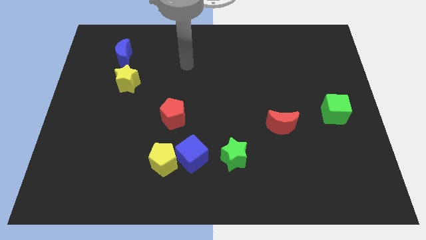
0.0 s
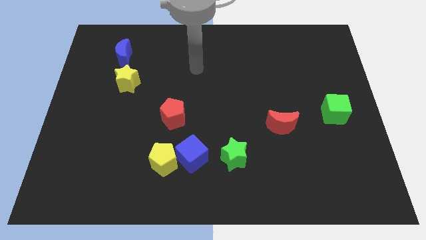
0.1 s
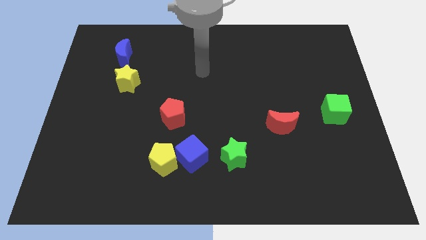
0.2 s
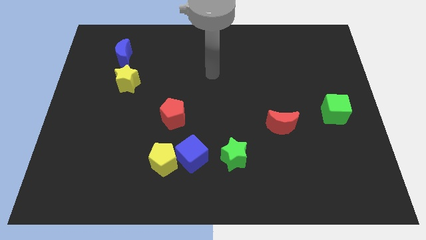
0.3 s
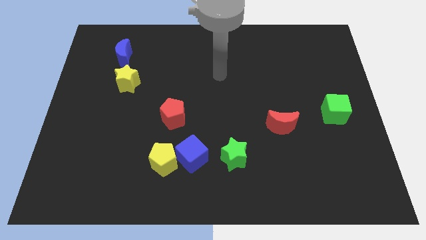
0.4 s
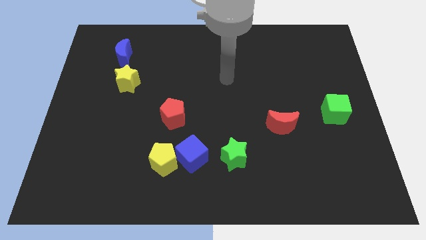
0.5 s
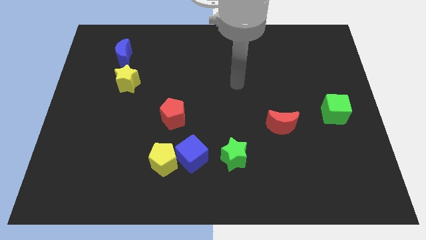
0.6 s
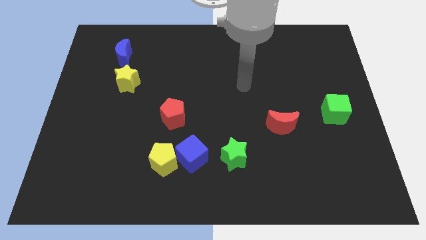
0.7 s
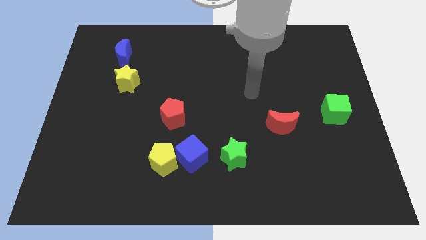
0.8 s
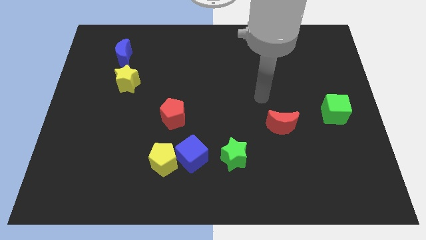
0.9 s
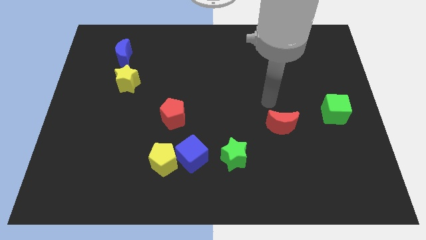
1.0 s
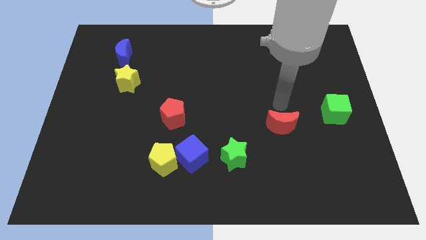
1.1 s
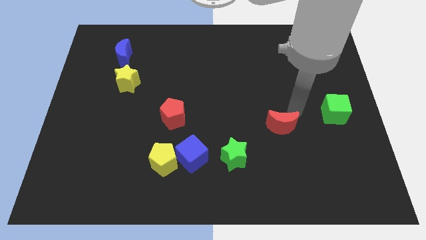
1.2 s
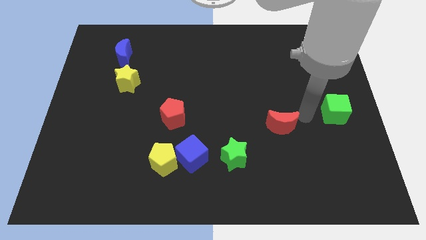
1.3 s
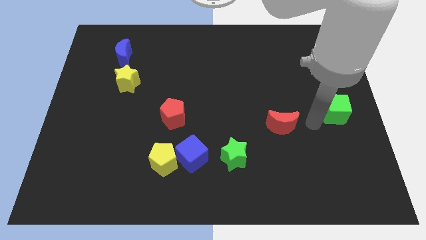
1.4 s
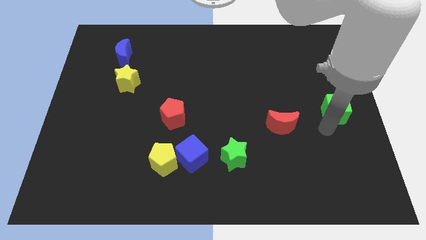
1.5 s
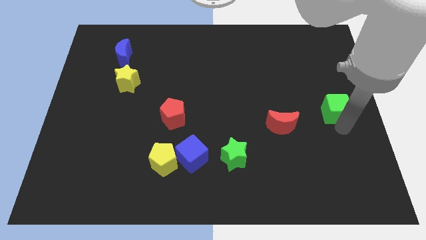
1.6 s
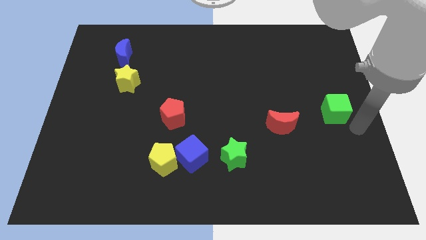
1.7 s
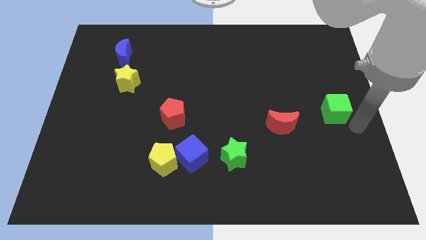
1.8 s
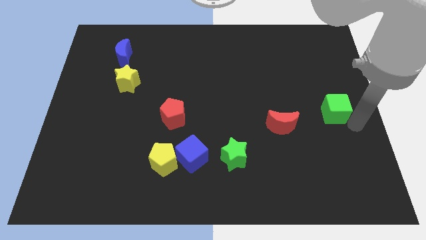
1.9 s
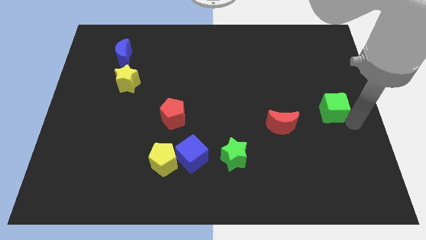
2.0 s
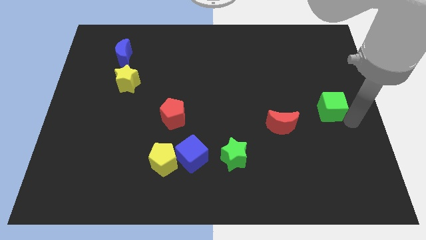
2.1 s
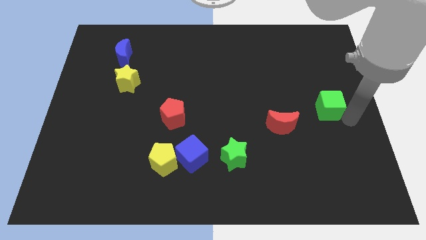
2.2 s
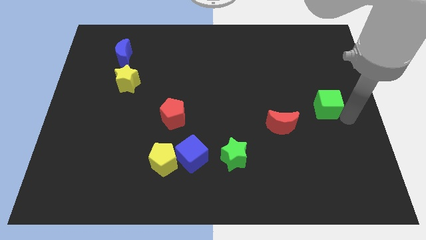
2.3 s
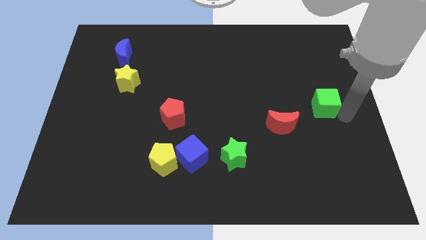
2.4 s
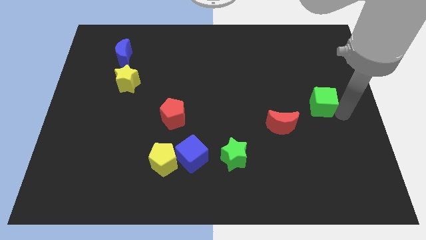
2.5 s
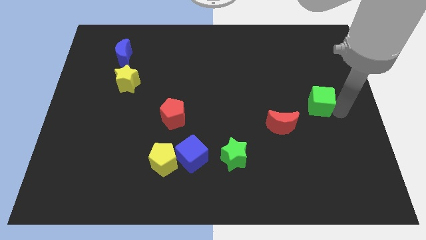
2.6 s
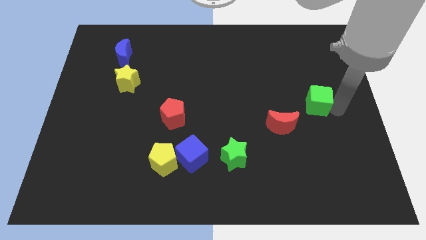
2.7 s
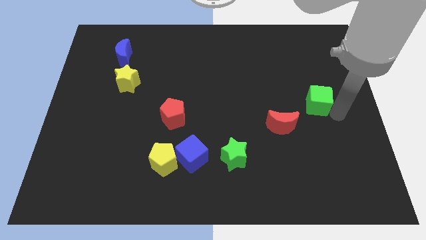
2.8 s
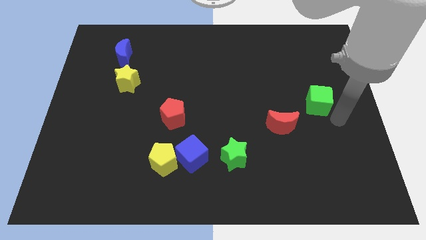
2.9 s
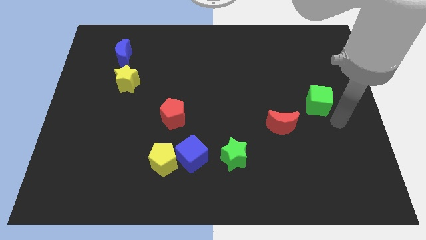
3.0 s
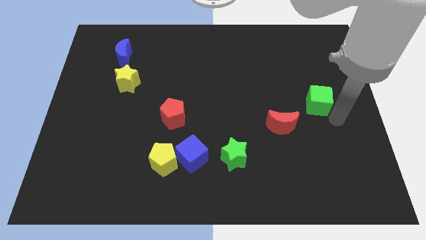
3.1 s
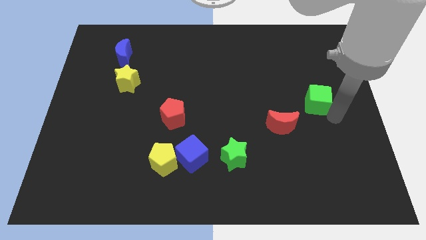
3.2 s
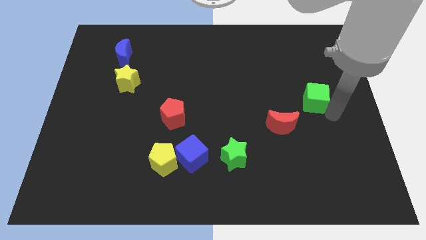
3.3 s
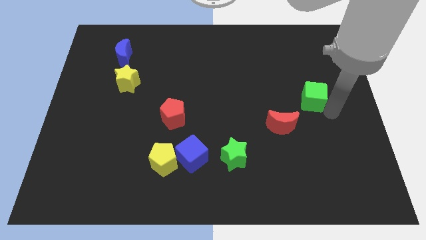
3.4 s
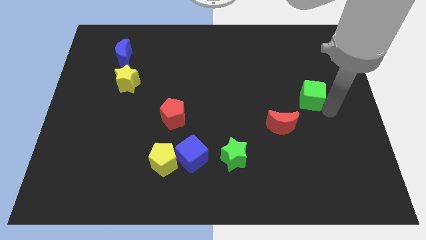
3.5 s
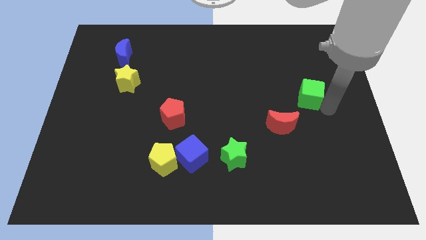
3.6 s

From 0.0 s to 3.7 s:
slide the green cube a little bit upwards and left diagonally

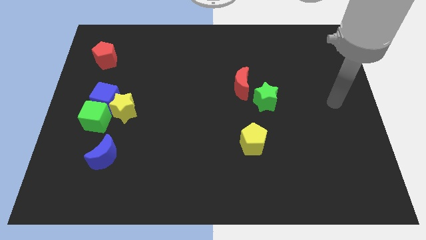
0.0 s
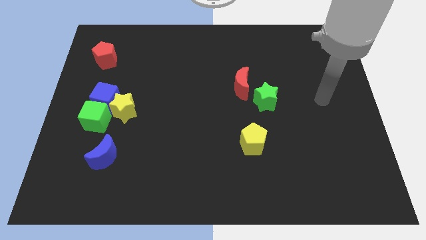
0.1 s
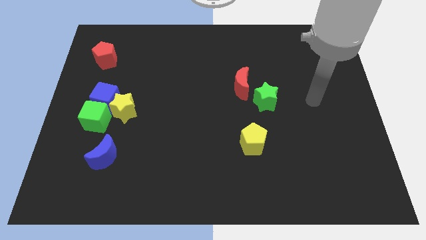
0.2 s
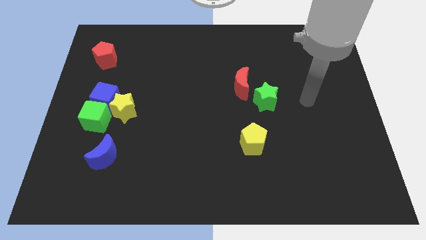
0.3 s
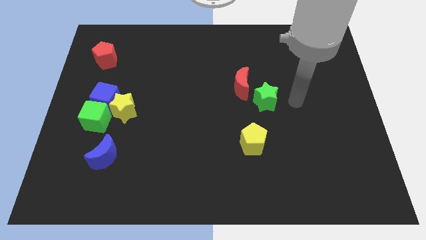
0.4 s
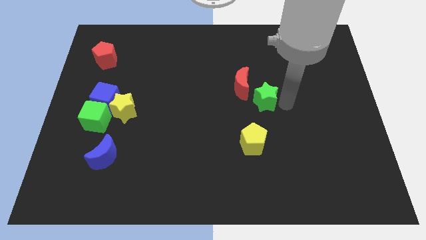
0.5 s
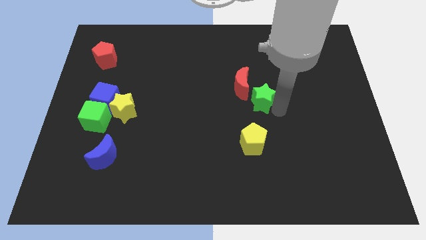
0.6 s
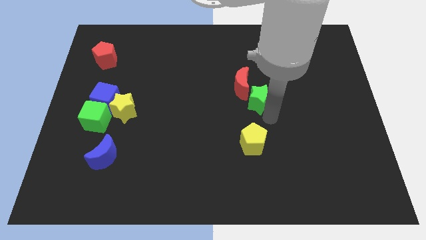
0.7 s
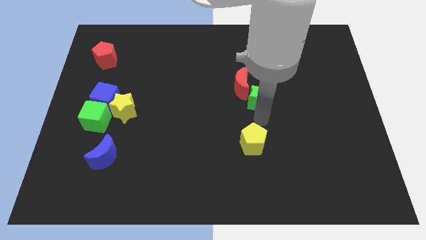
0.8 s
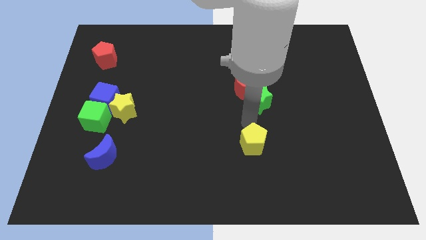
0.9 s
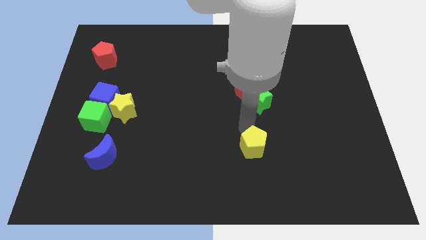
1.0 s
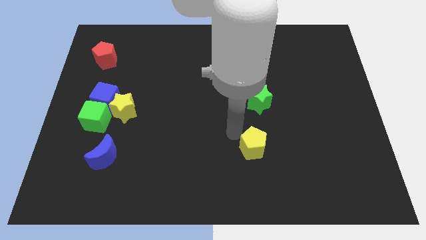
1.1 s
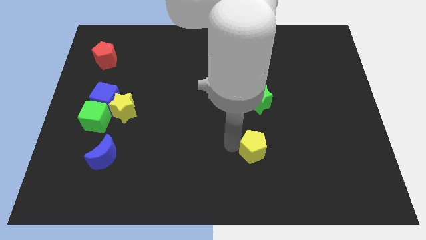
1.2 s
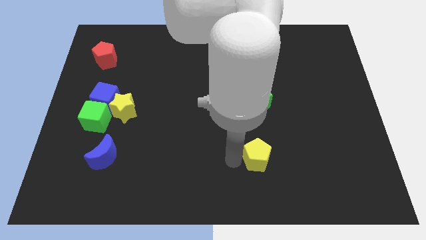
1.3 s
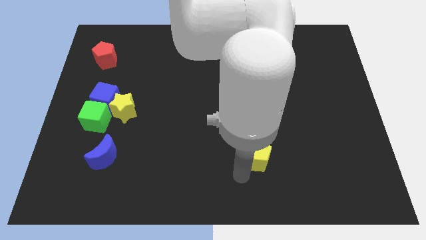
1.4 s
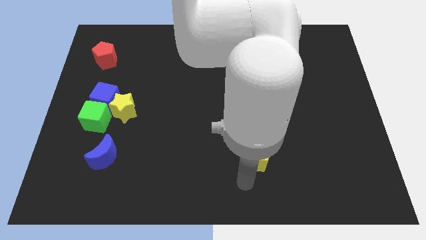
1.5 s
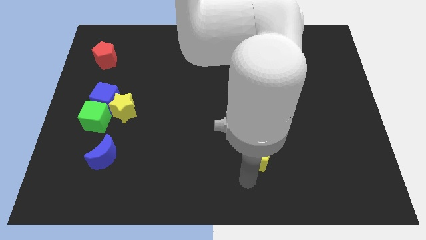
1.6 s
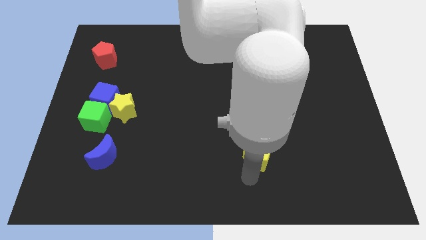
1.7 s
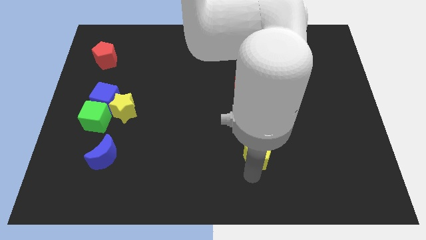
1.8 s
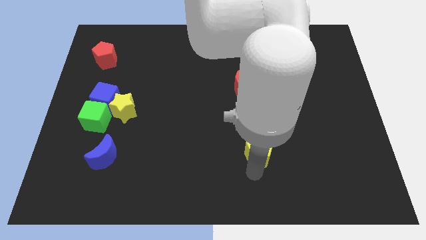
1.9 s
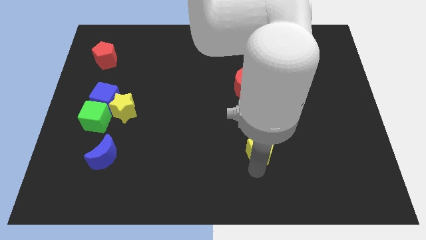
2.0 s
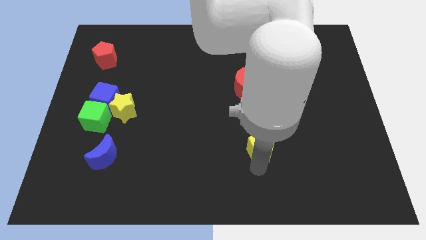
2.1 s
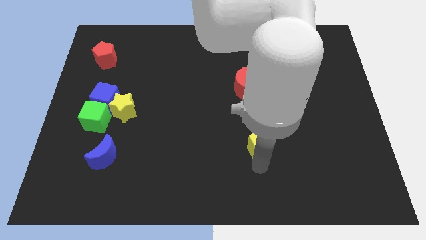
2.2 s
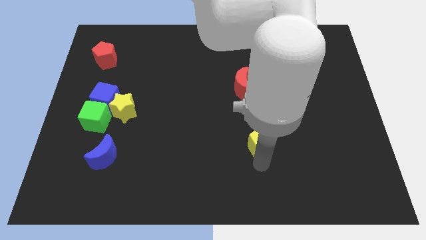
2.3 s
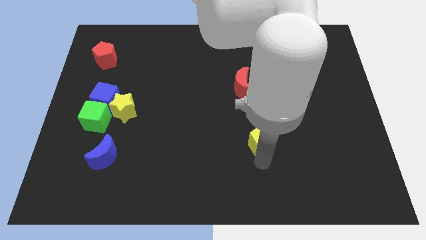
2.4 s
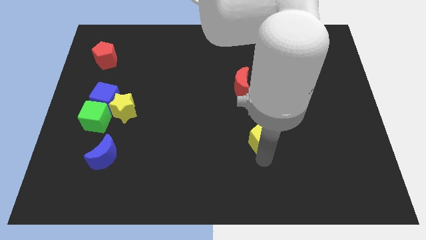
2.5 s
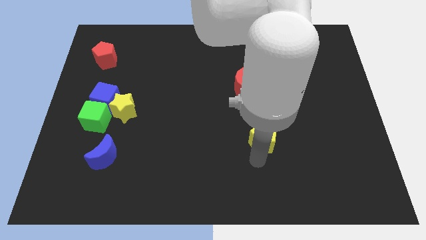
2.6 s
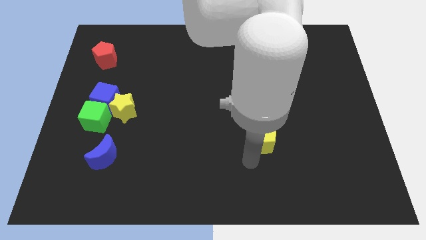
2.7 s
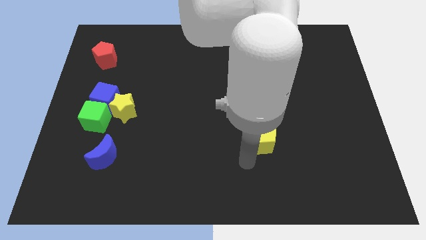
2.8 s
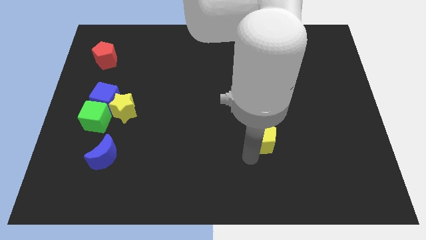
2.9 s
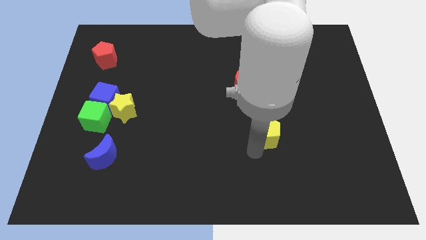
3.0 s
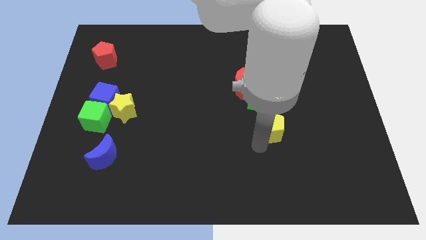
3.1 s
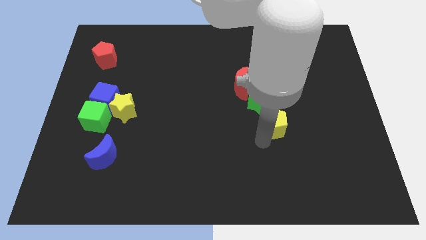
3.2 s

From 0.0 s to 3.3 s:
slightly push the yellow pentagon upwards and then to the right

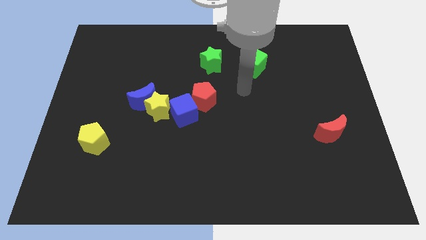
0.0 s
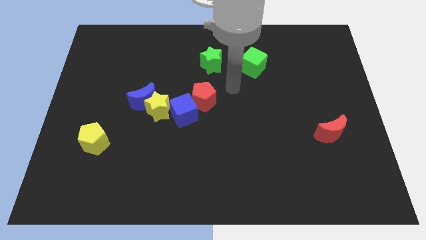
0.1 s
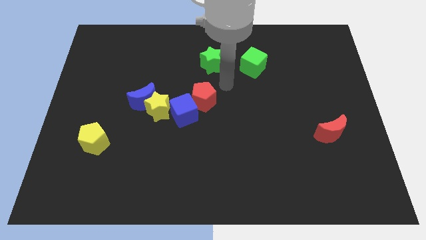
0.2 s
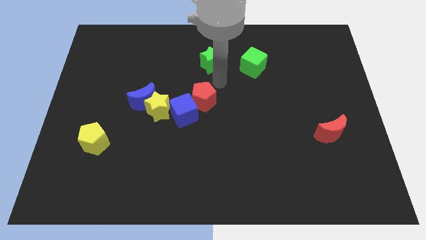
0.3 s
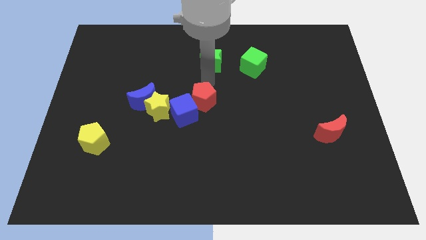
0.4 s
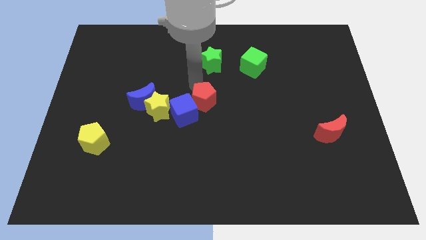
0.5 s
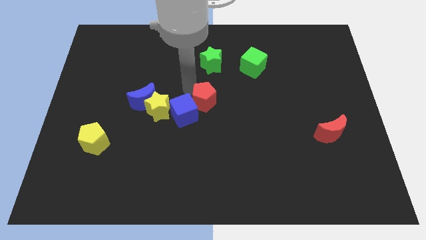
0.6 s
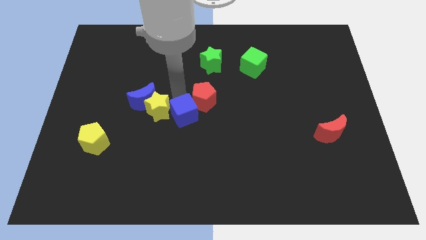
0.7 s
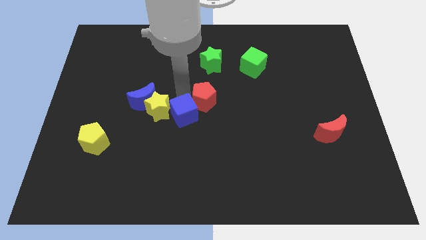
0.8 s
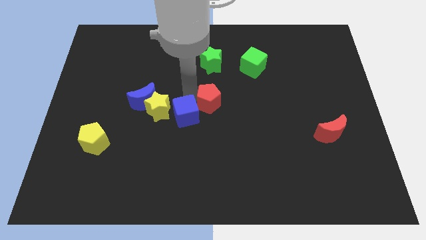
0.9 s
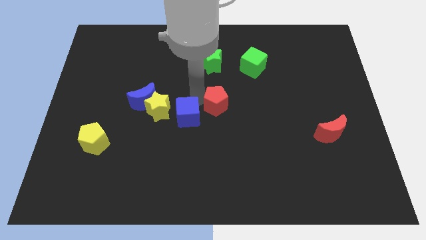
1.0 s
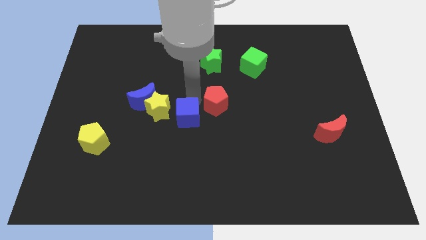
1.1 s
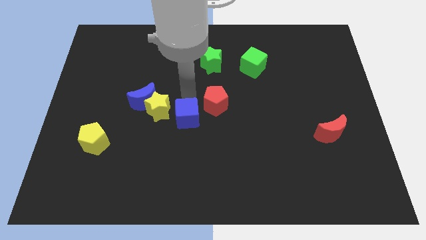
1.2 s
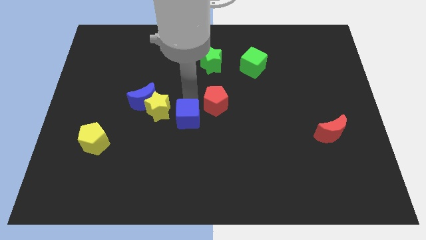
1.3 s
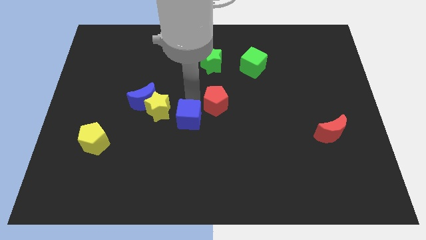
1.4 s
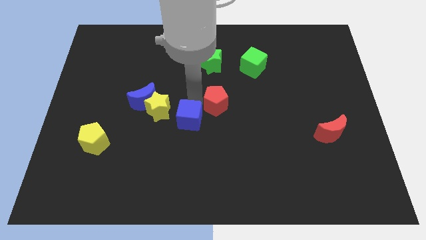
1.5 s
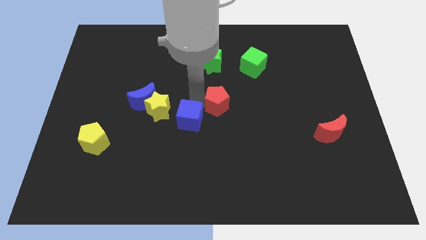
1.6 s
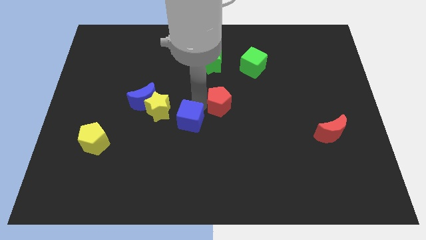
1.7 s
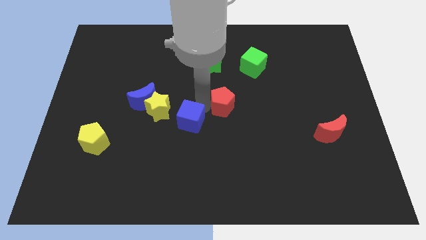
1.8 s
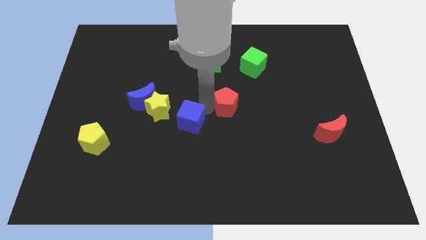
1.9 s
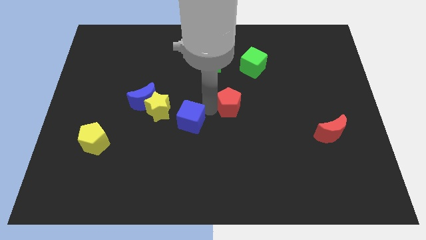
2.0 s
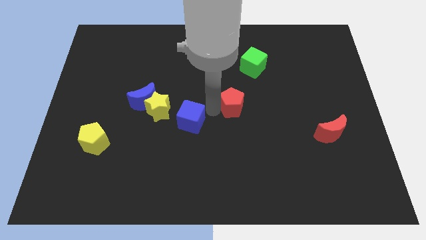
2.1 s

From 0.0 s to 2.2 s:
slightly push the red pentagon right
